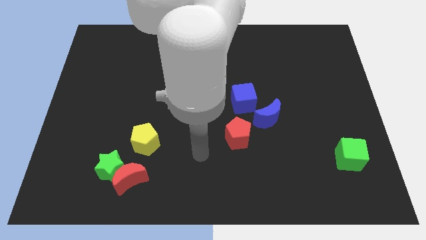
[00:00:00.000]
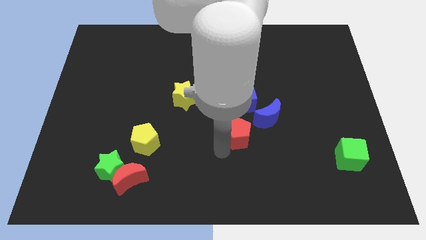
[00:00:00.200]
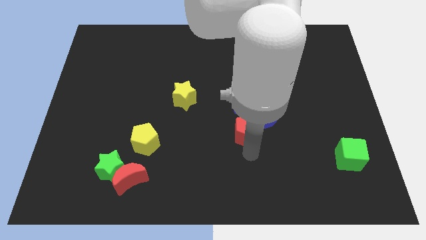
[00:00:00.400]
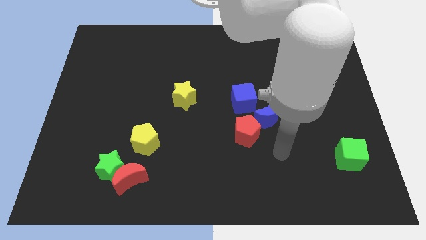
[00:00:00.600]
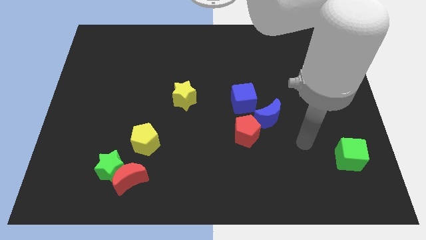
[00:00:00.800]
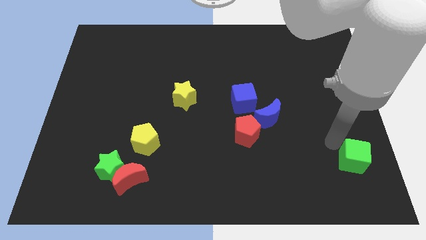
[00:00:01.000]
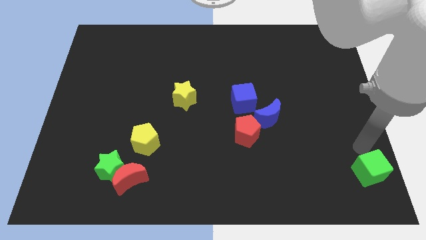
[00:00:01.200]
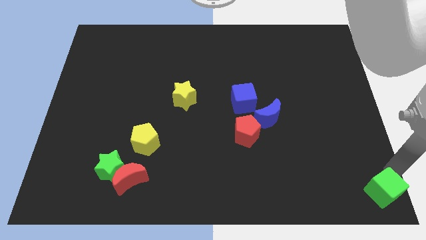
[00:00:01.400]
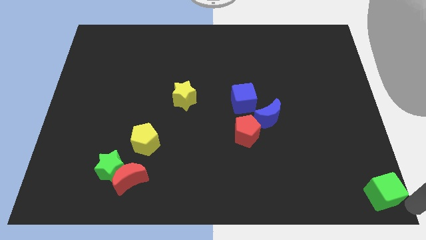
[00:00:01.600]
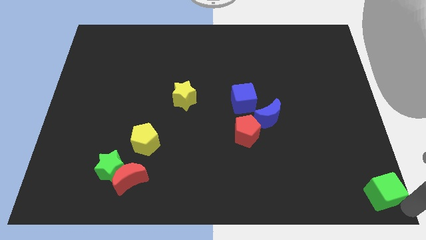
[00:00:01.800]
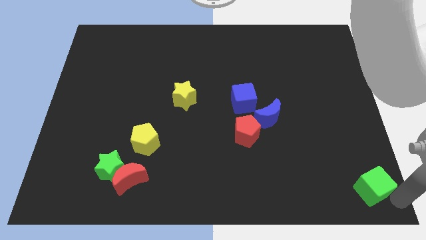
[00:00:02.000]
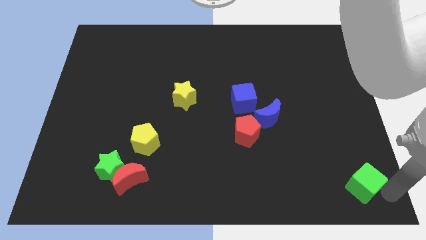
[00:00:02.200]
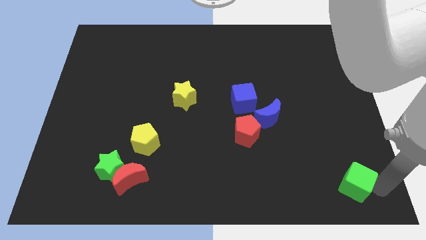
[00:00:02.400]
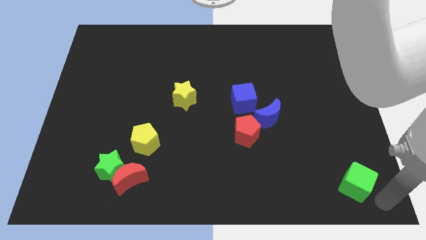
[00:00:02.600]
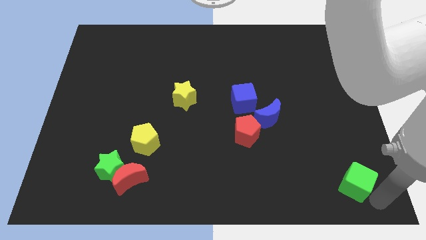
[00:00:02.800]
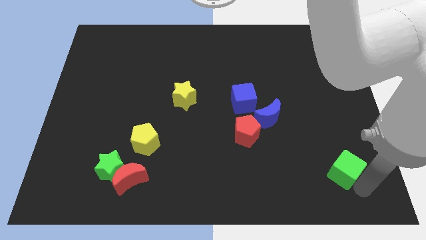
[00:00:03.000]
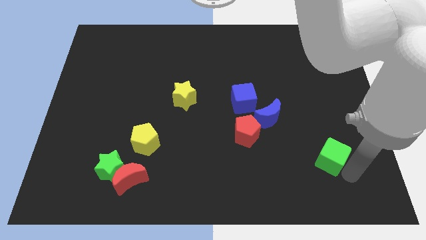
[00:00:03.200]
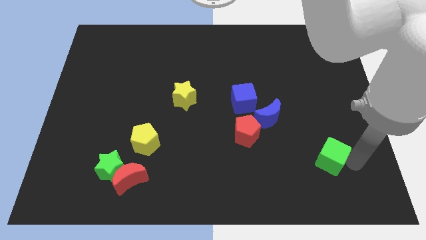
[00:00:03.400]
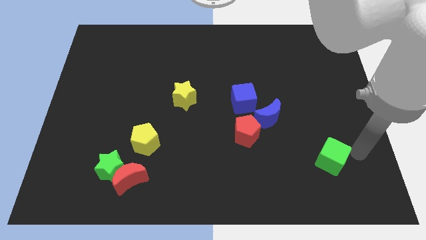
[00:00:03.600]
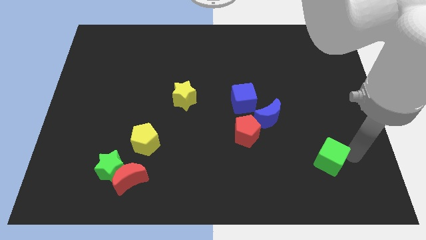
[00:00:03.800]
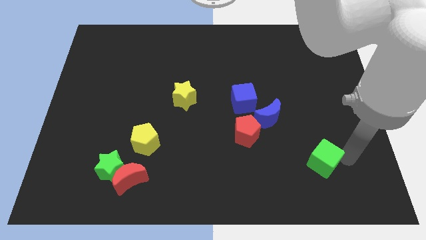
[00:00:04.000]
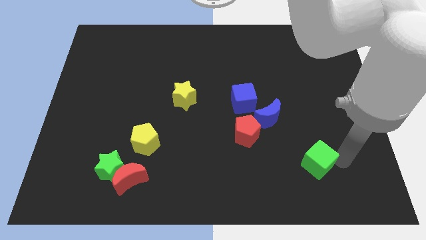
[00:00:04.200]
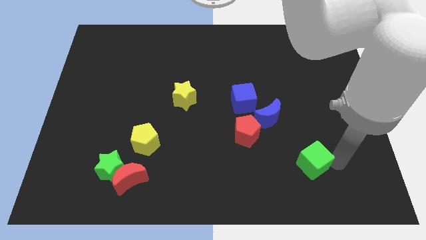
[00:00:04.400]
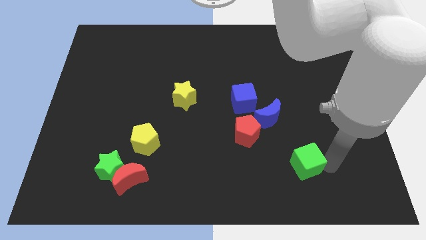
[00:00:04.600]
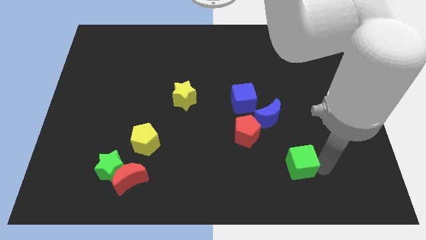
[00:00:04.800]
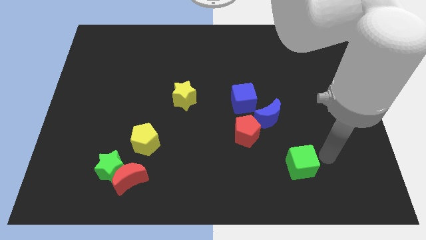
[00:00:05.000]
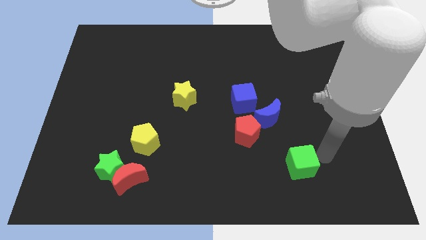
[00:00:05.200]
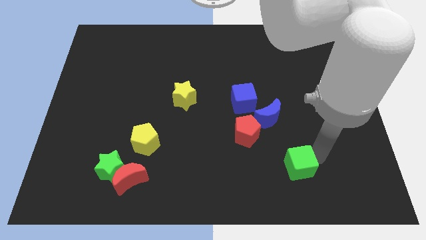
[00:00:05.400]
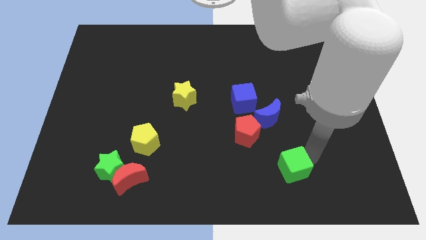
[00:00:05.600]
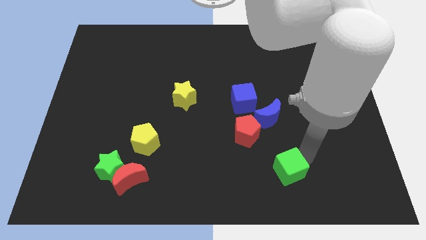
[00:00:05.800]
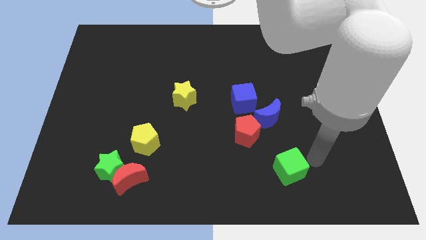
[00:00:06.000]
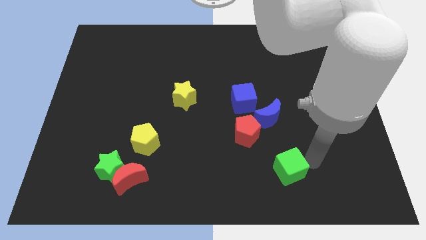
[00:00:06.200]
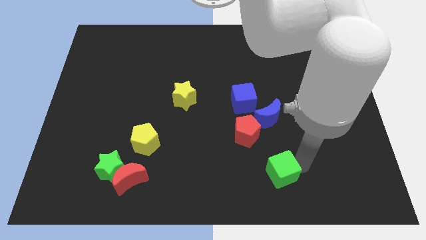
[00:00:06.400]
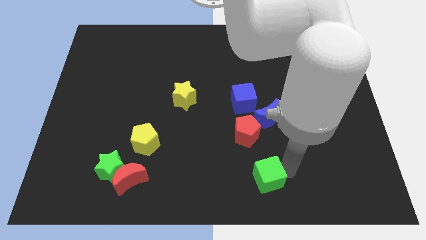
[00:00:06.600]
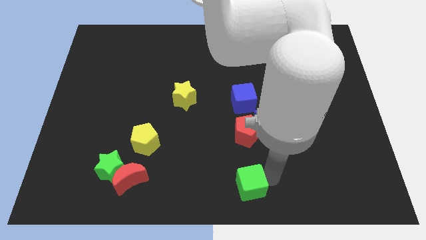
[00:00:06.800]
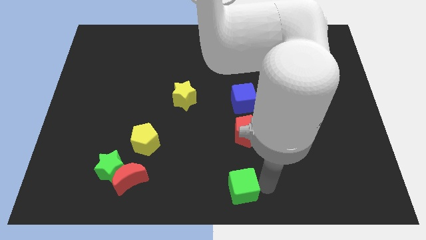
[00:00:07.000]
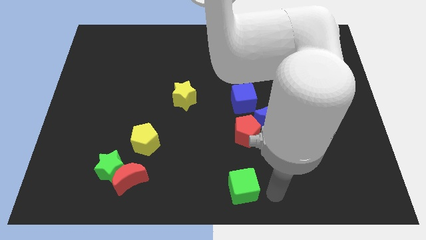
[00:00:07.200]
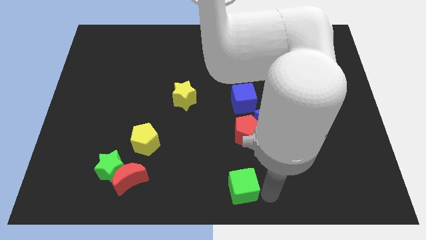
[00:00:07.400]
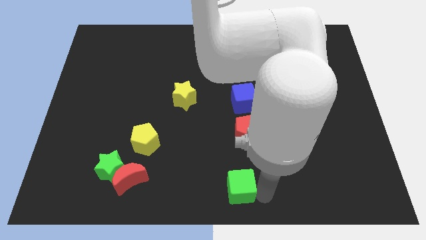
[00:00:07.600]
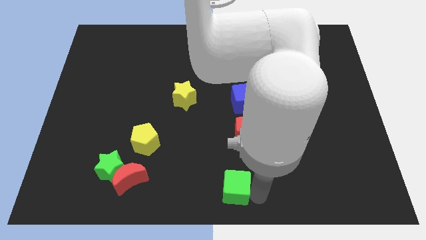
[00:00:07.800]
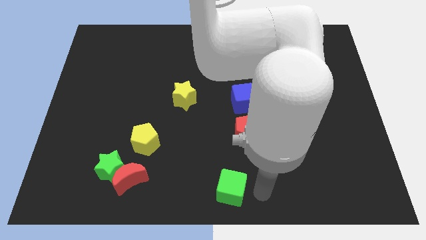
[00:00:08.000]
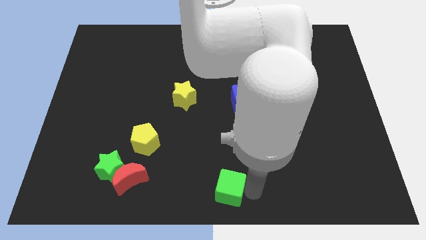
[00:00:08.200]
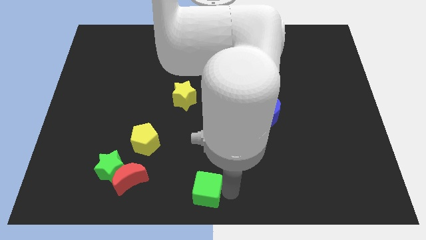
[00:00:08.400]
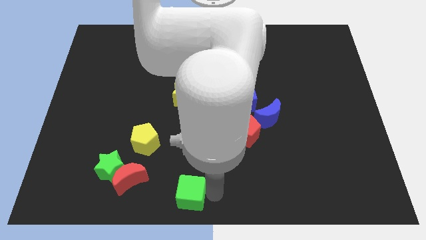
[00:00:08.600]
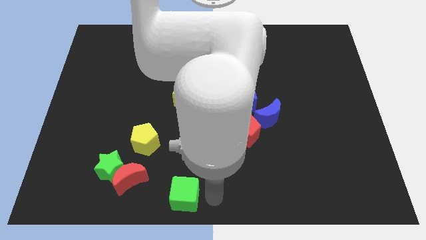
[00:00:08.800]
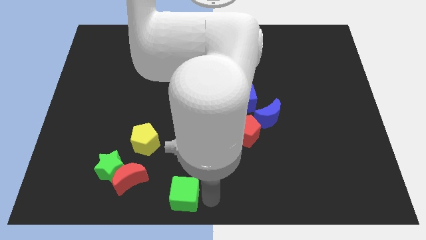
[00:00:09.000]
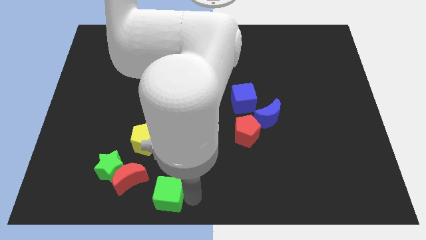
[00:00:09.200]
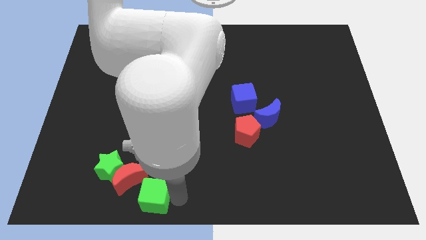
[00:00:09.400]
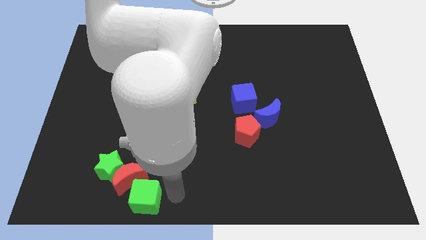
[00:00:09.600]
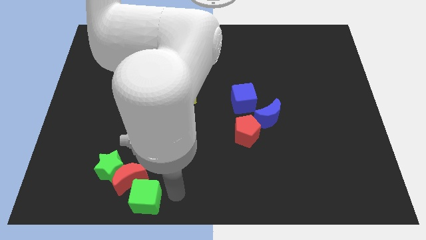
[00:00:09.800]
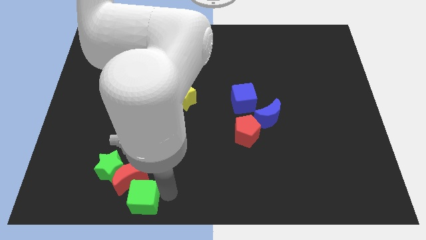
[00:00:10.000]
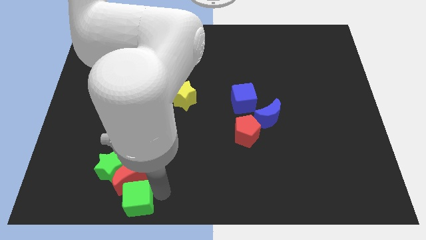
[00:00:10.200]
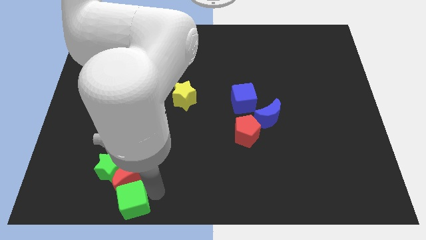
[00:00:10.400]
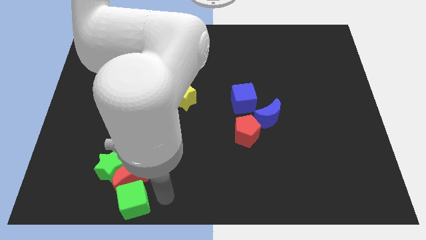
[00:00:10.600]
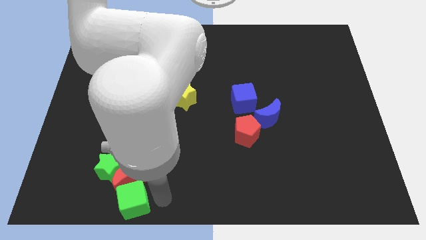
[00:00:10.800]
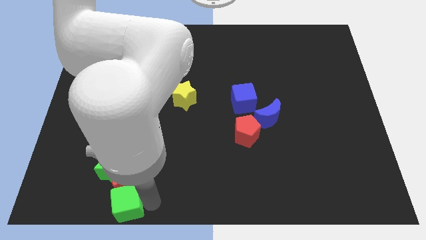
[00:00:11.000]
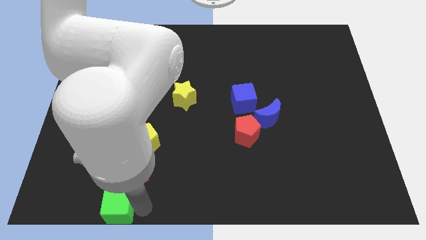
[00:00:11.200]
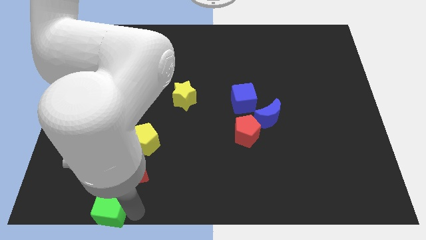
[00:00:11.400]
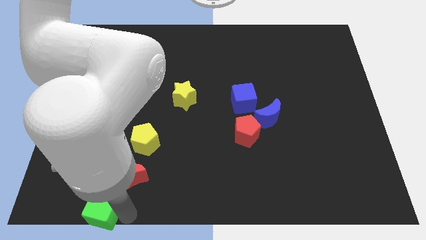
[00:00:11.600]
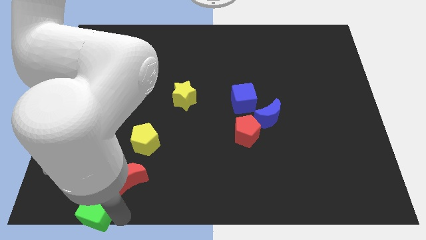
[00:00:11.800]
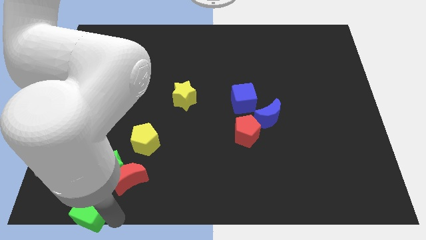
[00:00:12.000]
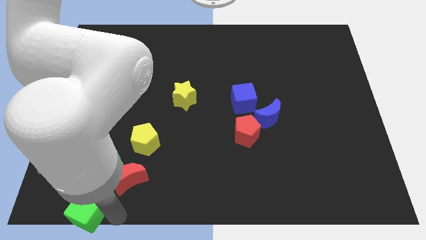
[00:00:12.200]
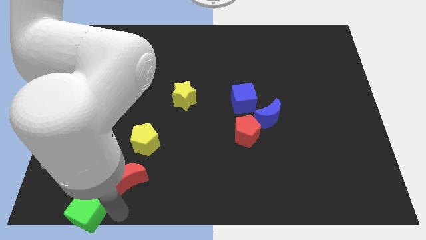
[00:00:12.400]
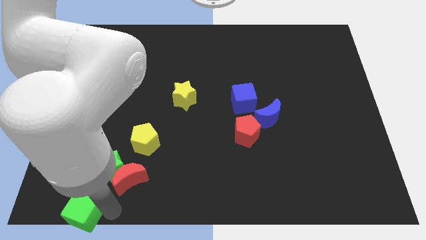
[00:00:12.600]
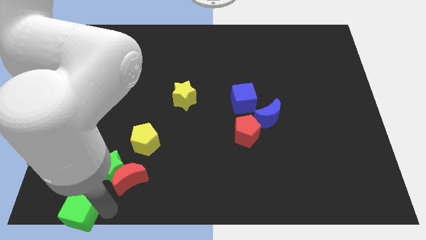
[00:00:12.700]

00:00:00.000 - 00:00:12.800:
push the green cube to the bottom left corner
